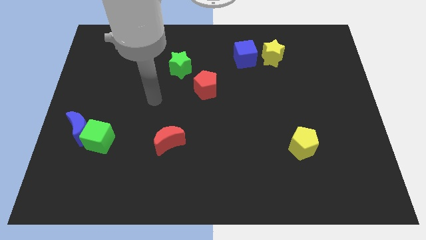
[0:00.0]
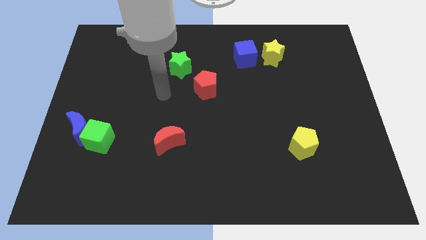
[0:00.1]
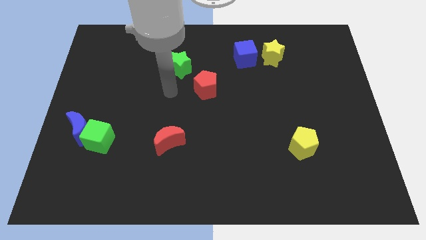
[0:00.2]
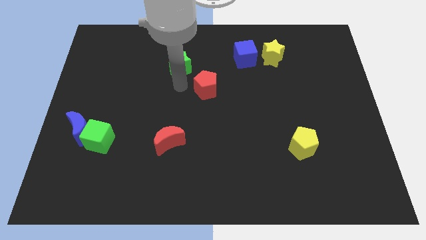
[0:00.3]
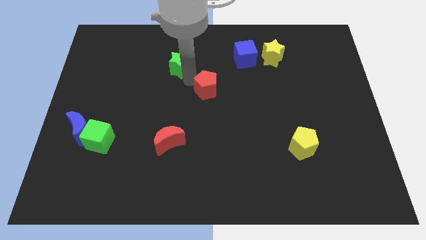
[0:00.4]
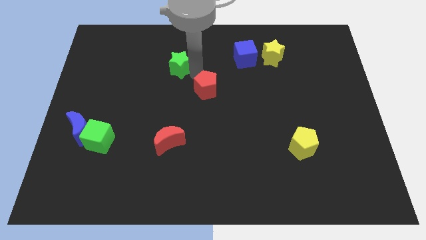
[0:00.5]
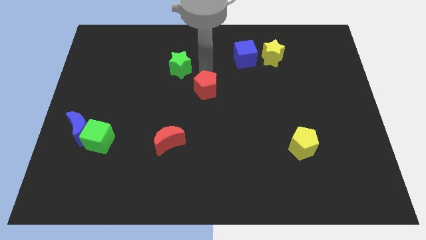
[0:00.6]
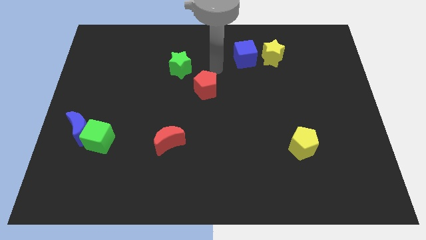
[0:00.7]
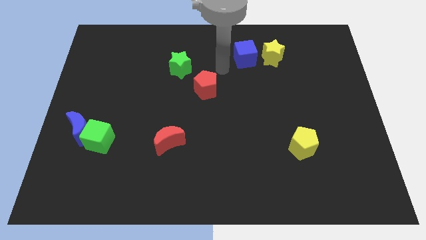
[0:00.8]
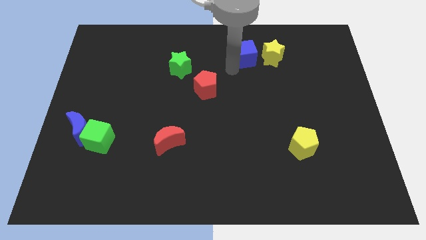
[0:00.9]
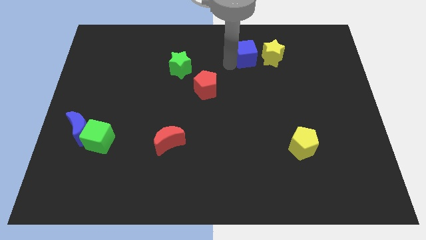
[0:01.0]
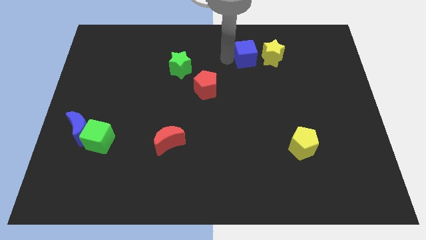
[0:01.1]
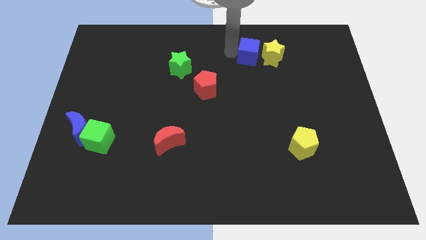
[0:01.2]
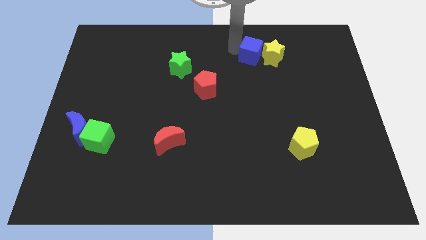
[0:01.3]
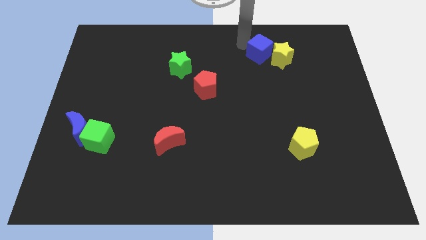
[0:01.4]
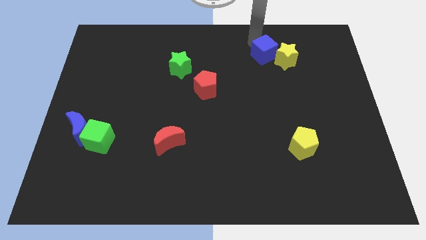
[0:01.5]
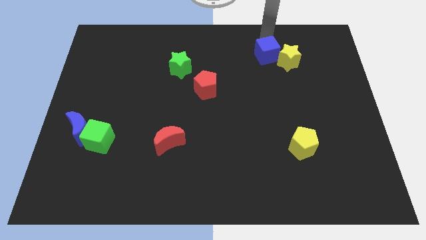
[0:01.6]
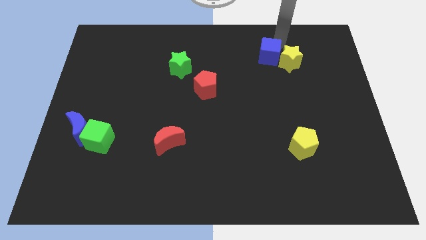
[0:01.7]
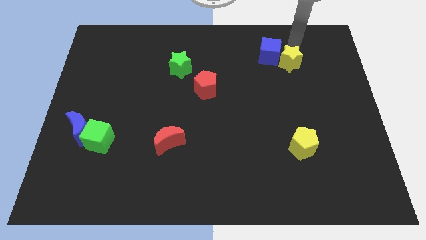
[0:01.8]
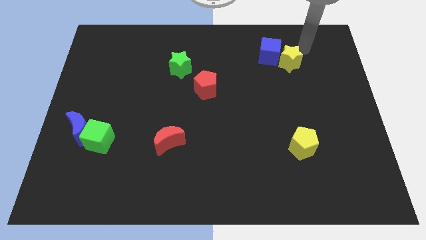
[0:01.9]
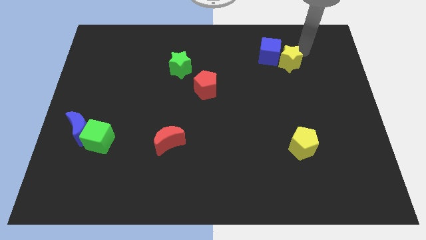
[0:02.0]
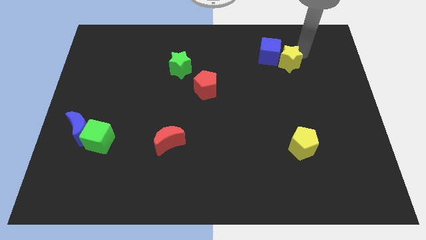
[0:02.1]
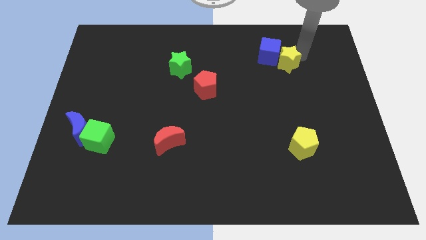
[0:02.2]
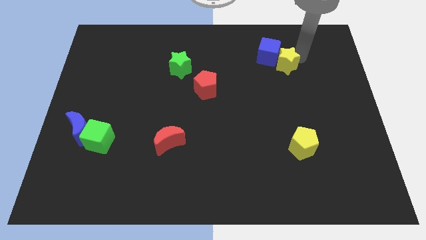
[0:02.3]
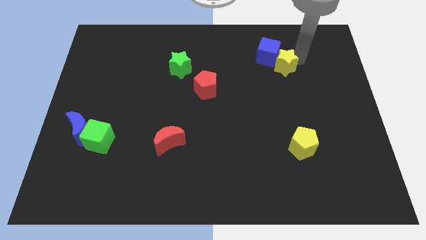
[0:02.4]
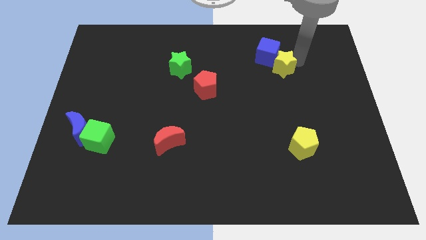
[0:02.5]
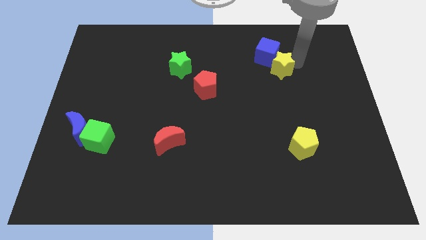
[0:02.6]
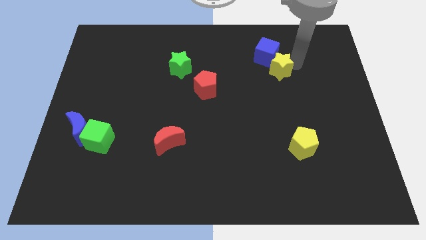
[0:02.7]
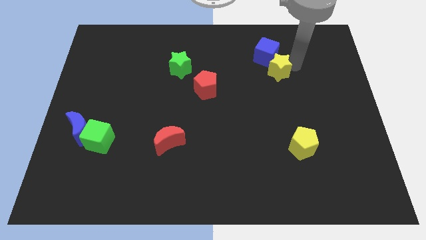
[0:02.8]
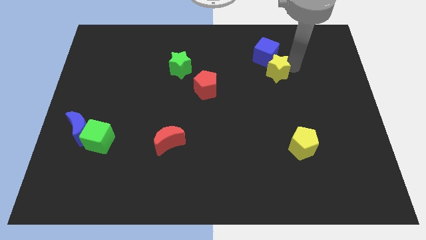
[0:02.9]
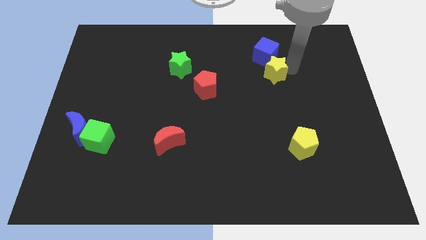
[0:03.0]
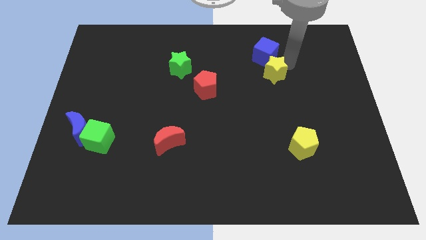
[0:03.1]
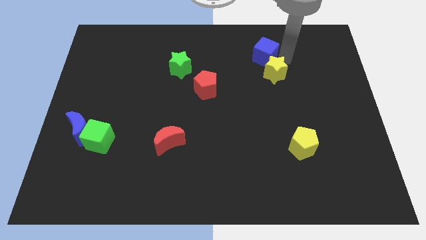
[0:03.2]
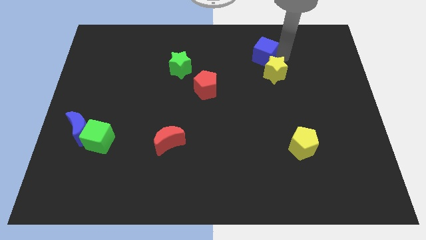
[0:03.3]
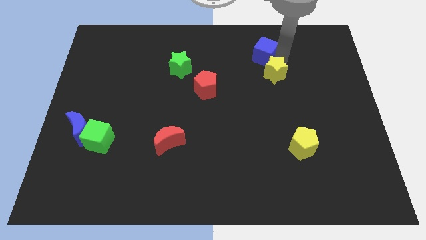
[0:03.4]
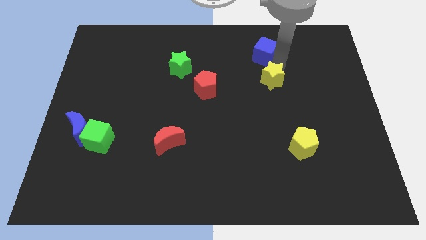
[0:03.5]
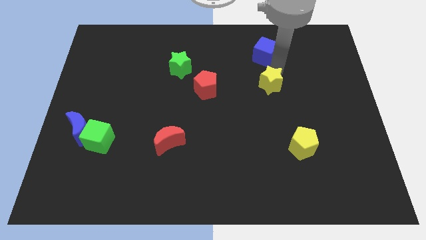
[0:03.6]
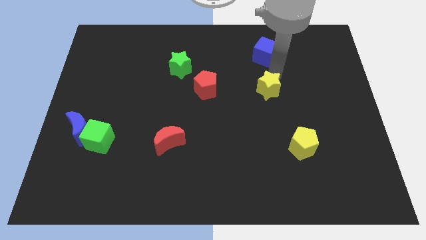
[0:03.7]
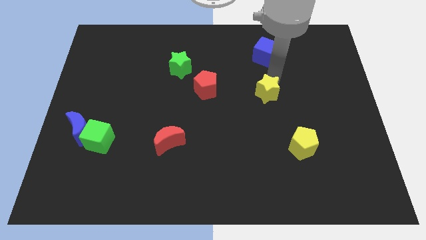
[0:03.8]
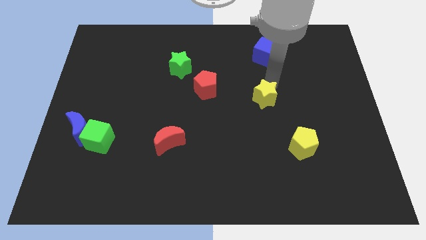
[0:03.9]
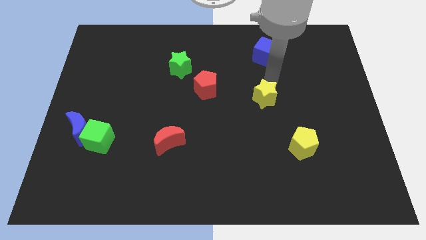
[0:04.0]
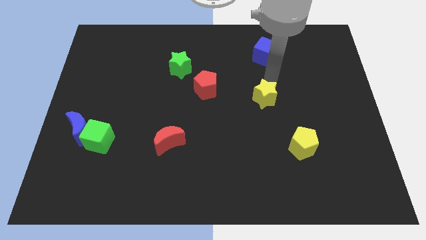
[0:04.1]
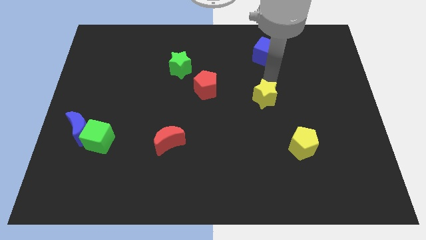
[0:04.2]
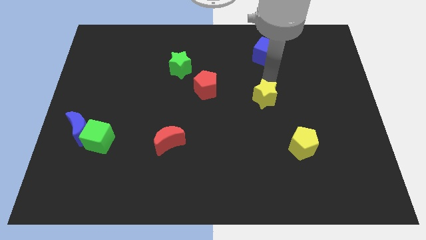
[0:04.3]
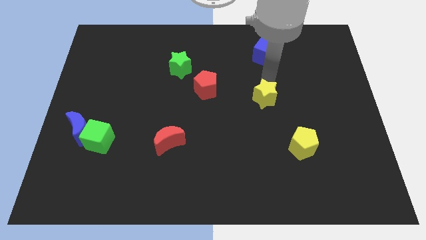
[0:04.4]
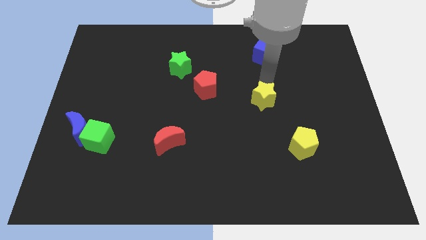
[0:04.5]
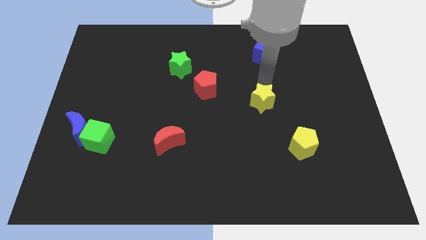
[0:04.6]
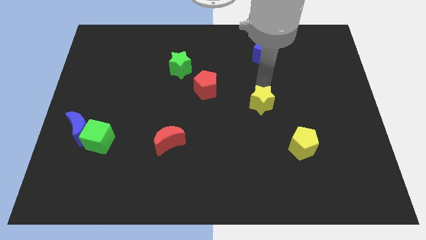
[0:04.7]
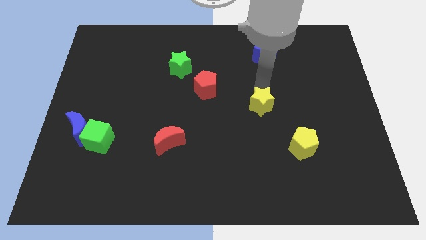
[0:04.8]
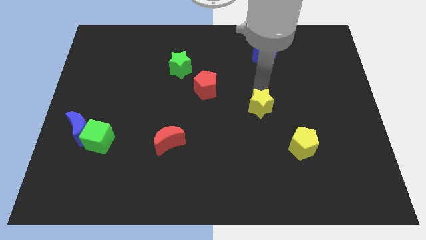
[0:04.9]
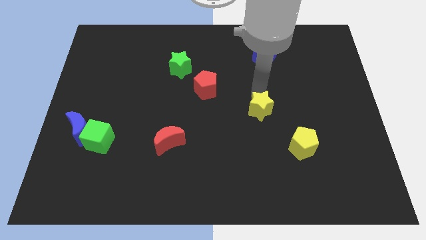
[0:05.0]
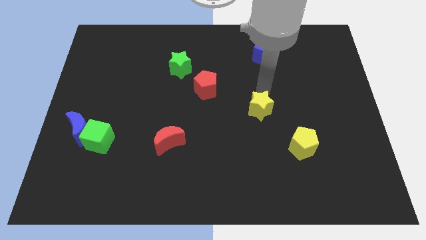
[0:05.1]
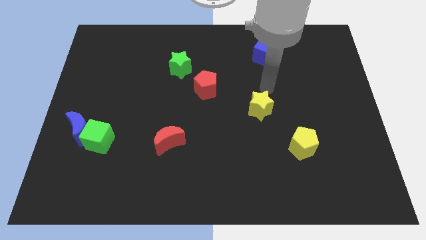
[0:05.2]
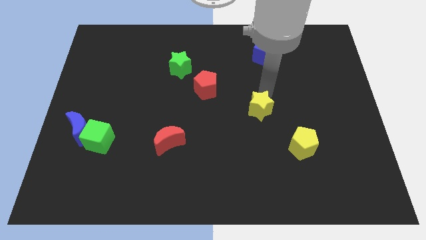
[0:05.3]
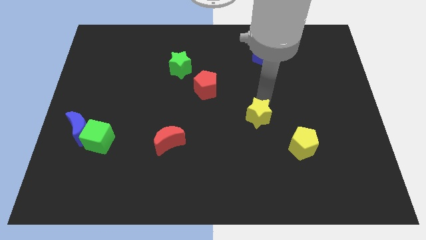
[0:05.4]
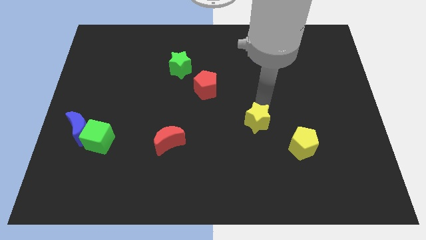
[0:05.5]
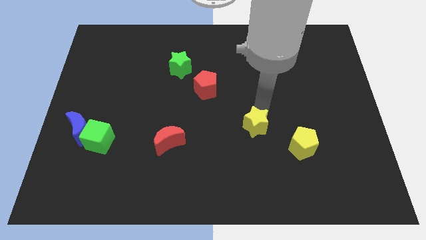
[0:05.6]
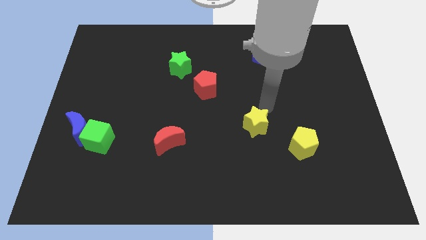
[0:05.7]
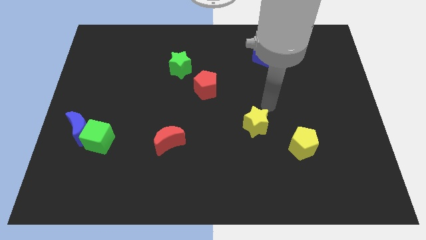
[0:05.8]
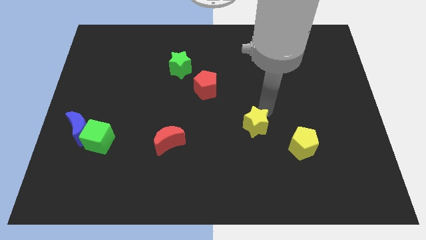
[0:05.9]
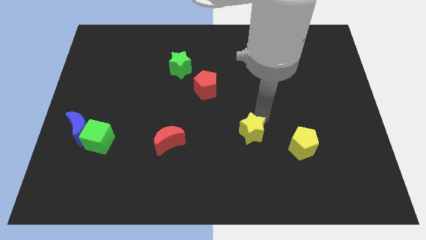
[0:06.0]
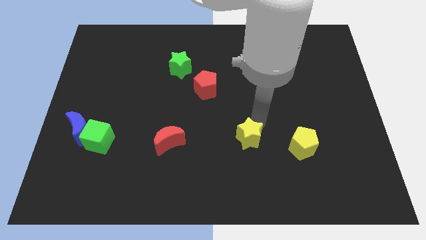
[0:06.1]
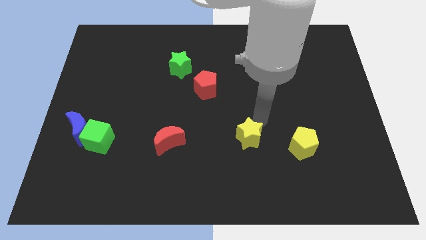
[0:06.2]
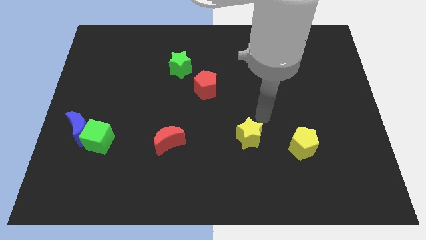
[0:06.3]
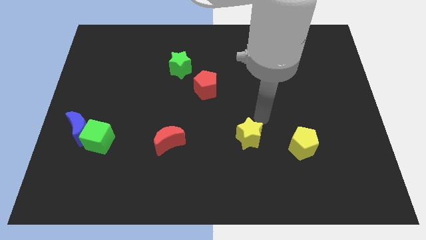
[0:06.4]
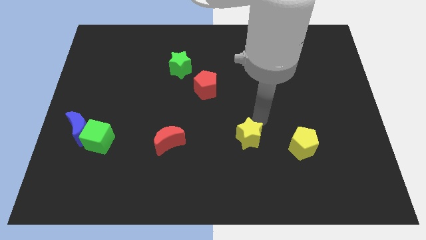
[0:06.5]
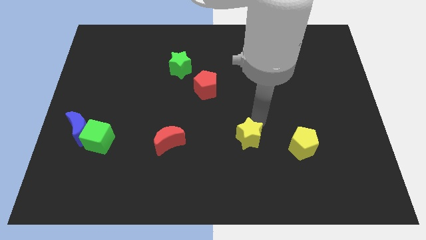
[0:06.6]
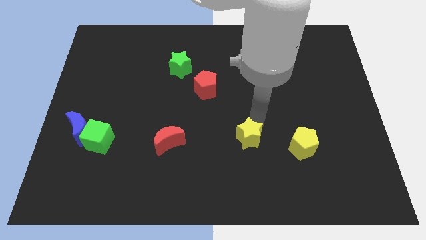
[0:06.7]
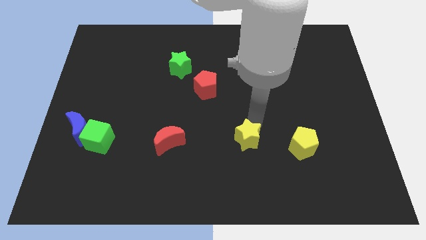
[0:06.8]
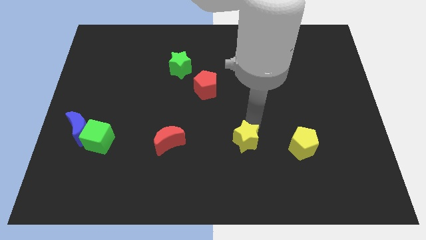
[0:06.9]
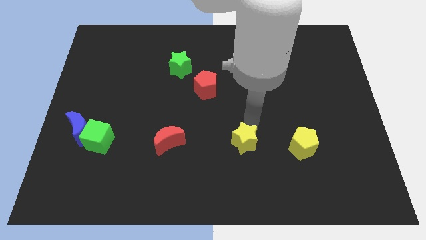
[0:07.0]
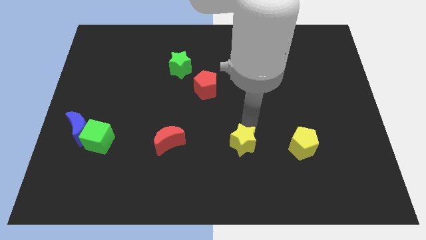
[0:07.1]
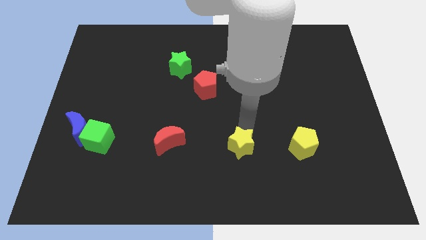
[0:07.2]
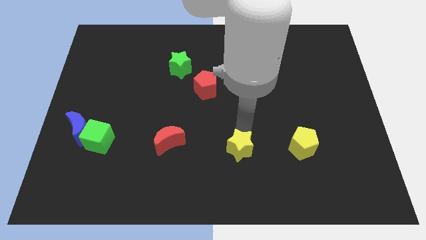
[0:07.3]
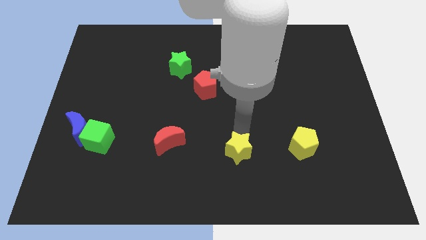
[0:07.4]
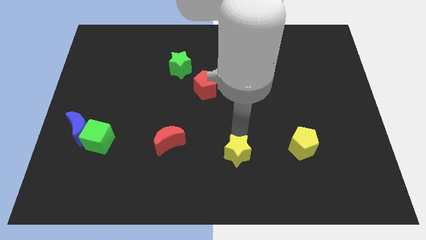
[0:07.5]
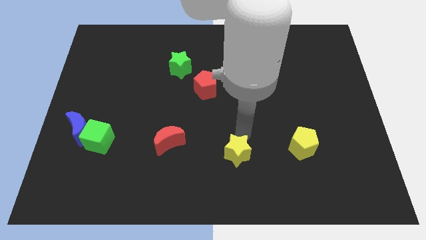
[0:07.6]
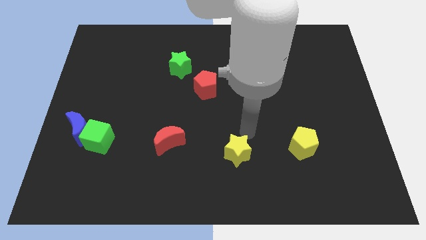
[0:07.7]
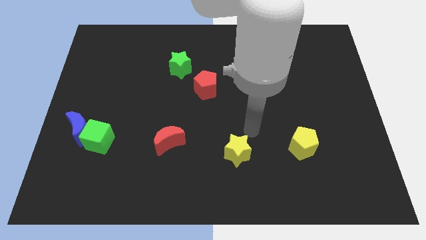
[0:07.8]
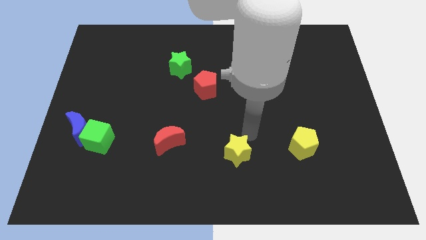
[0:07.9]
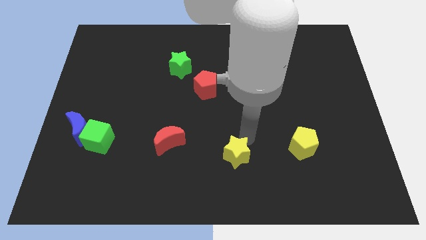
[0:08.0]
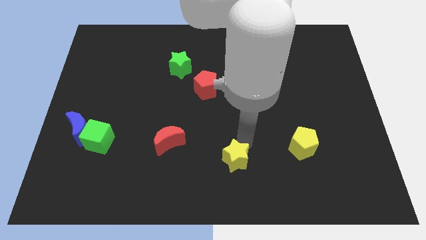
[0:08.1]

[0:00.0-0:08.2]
push the yellow star to the bottom side
